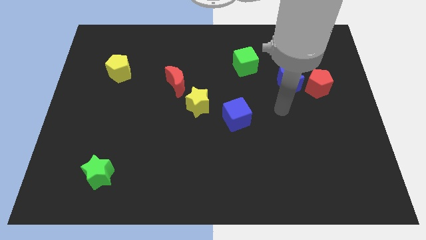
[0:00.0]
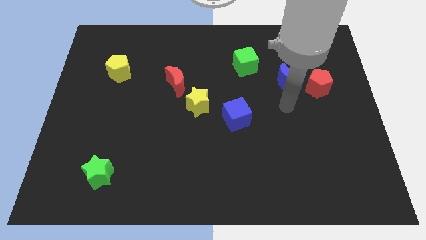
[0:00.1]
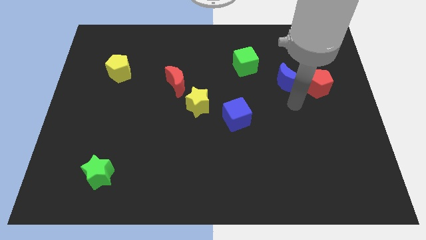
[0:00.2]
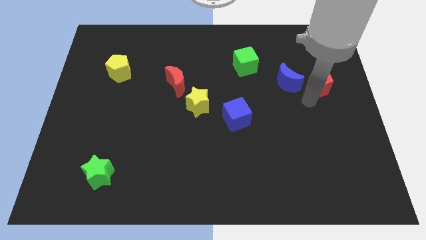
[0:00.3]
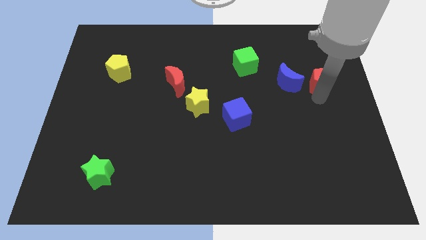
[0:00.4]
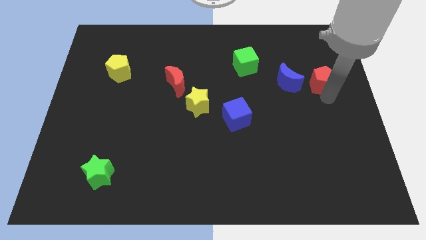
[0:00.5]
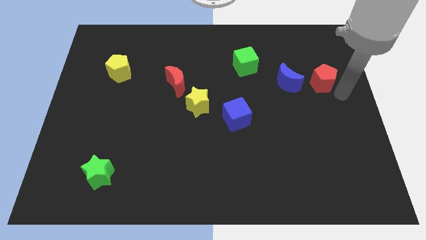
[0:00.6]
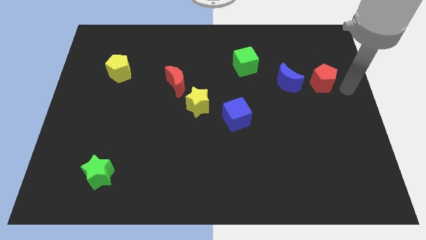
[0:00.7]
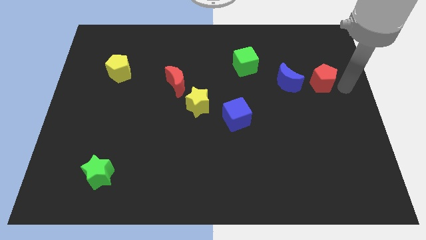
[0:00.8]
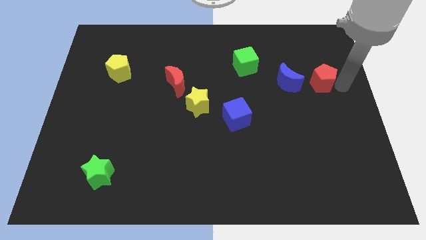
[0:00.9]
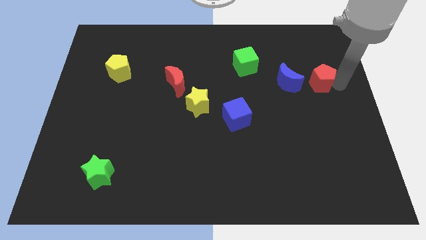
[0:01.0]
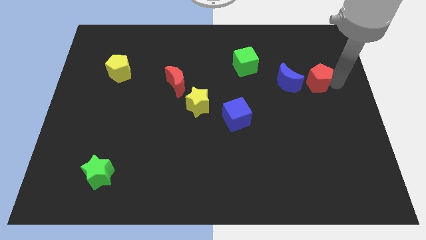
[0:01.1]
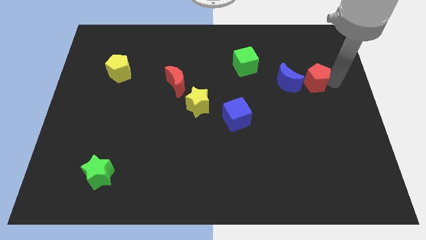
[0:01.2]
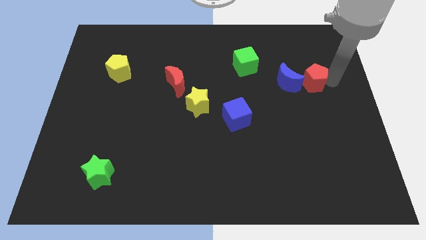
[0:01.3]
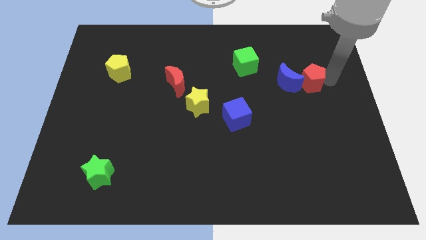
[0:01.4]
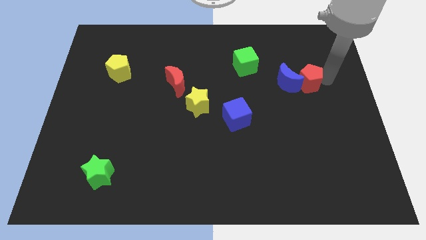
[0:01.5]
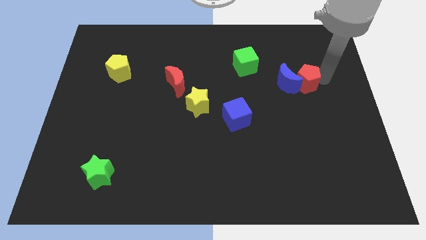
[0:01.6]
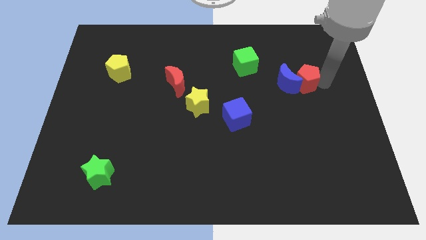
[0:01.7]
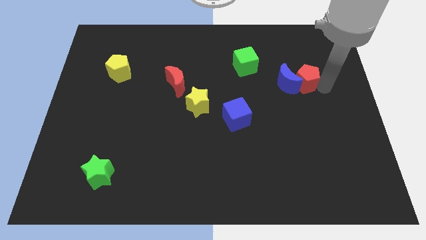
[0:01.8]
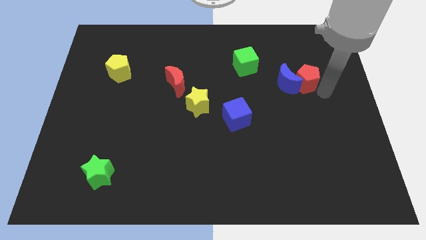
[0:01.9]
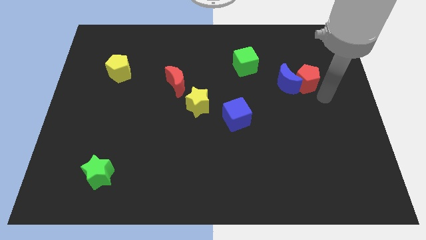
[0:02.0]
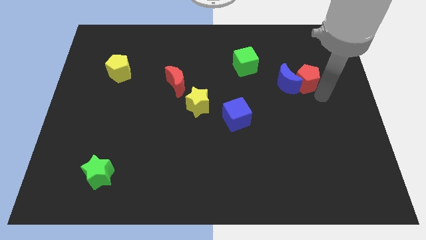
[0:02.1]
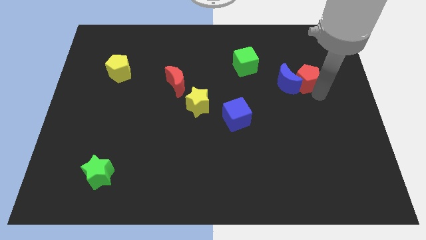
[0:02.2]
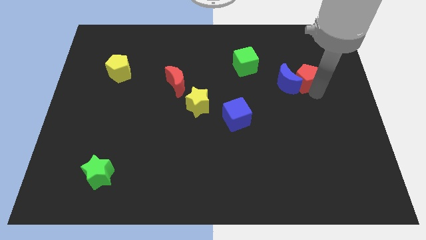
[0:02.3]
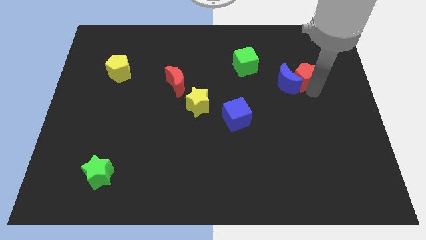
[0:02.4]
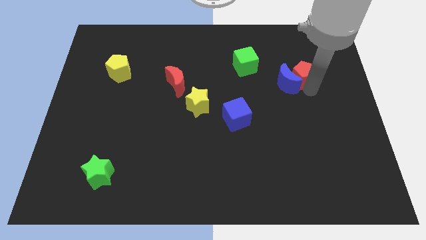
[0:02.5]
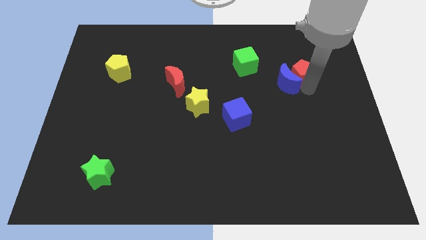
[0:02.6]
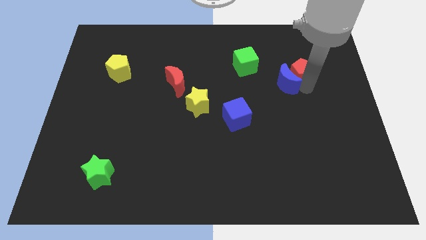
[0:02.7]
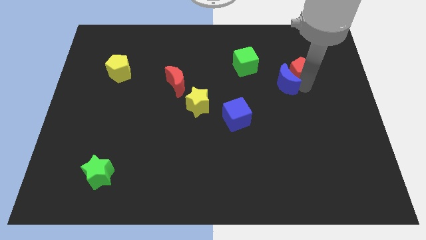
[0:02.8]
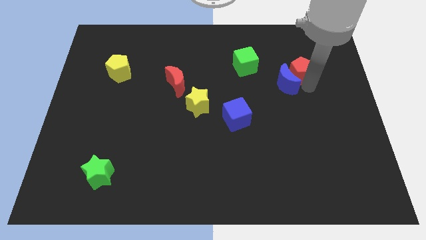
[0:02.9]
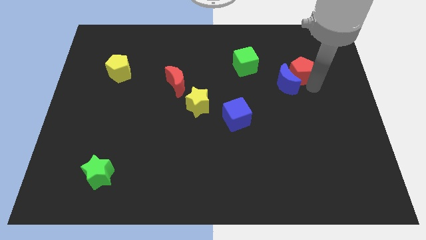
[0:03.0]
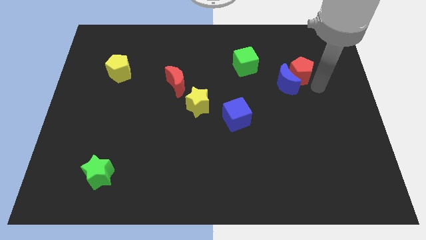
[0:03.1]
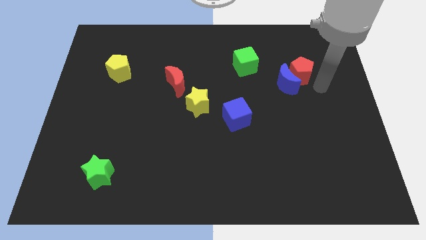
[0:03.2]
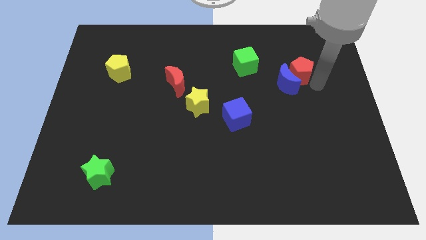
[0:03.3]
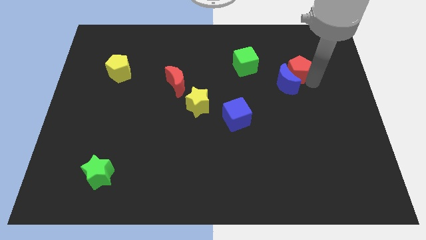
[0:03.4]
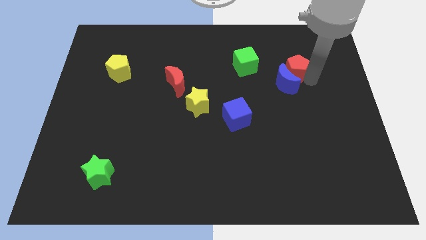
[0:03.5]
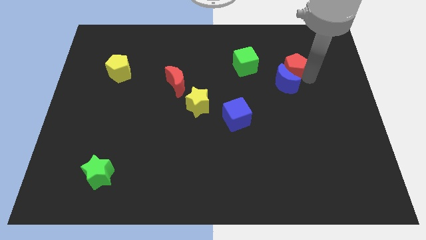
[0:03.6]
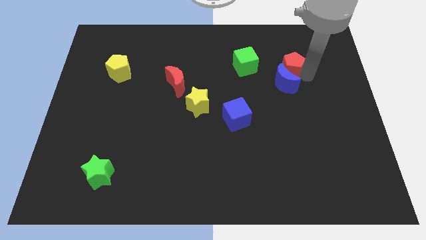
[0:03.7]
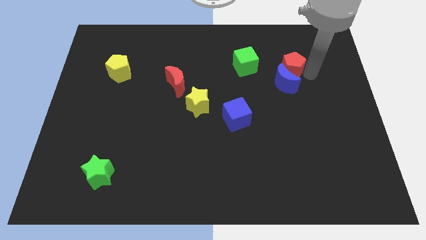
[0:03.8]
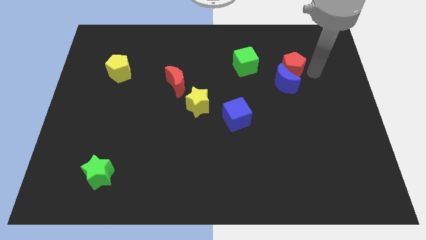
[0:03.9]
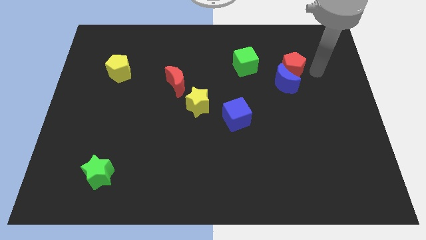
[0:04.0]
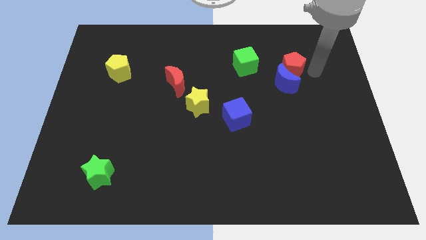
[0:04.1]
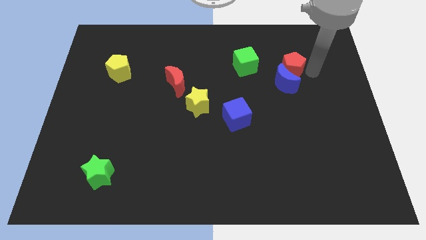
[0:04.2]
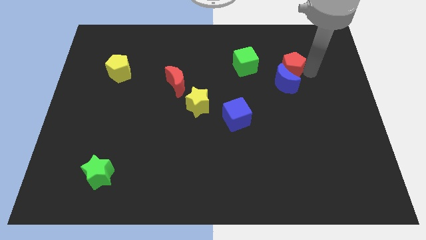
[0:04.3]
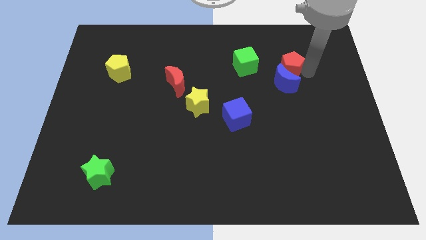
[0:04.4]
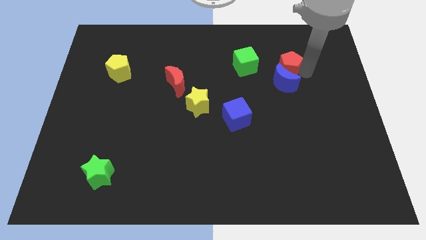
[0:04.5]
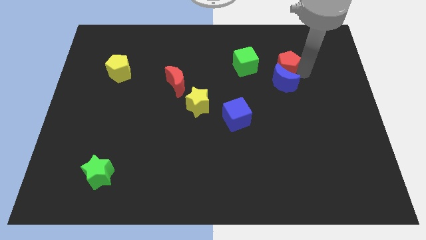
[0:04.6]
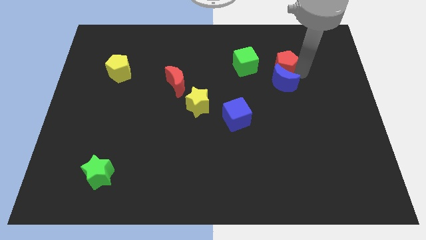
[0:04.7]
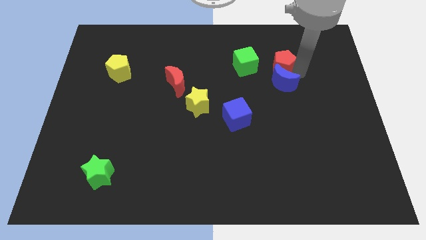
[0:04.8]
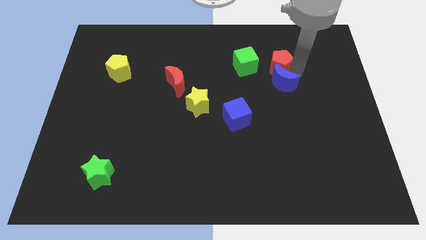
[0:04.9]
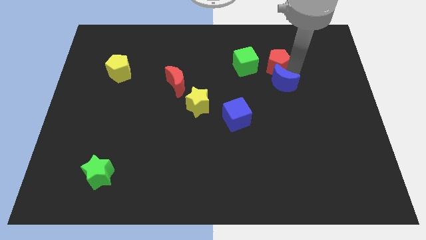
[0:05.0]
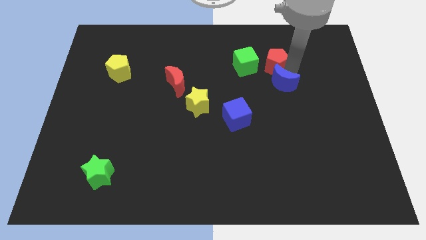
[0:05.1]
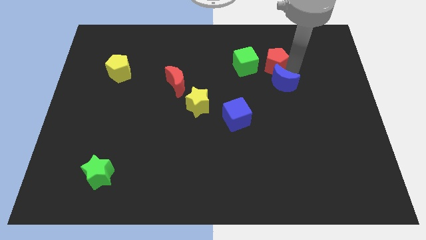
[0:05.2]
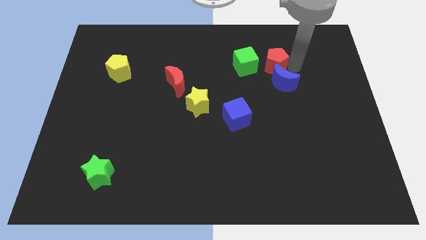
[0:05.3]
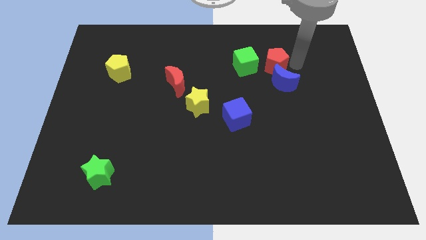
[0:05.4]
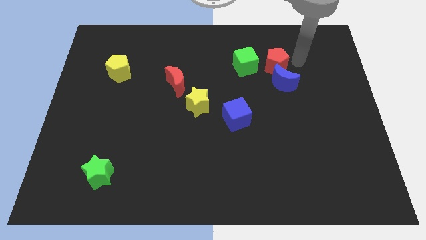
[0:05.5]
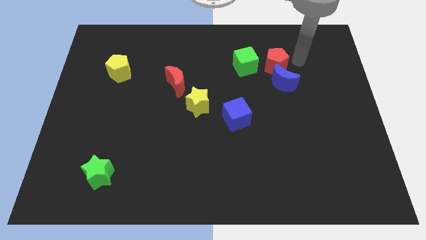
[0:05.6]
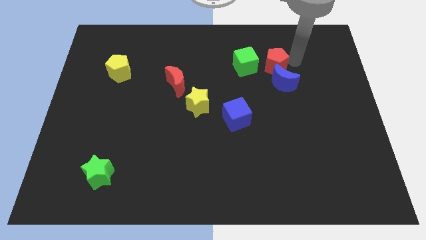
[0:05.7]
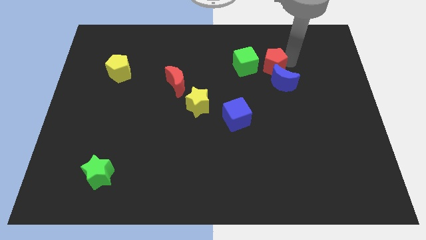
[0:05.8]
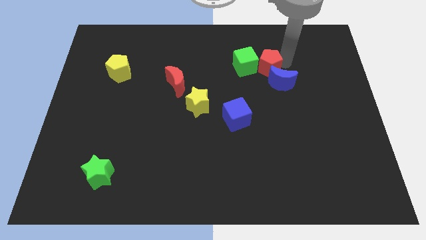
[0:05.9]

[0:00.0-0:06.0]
push the red pentagon close to the green cube
